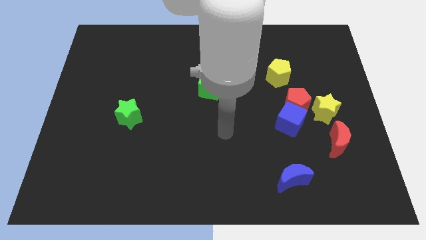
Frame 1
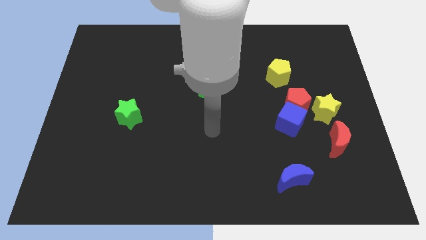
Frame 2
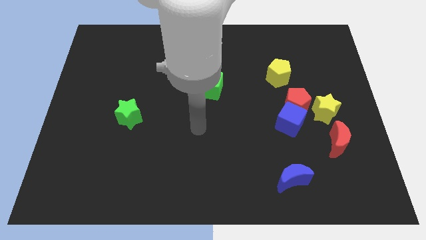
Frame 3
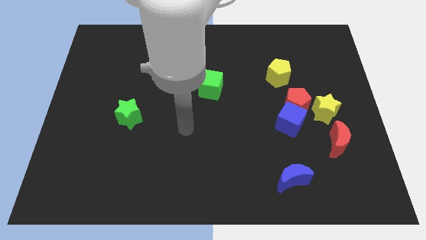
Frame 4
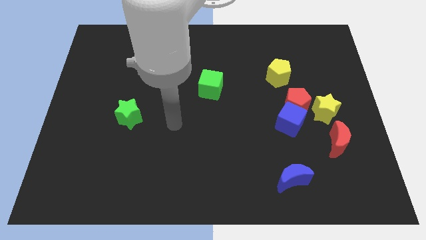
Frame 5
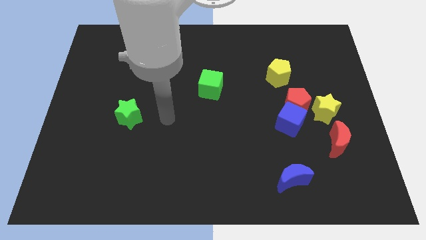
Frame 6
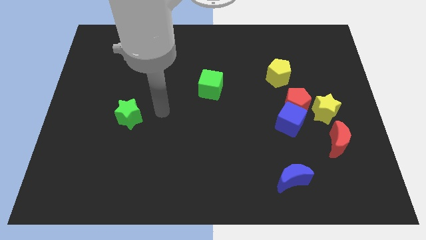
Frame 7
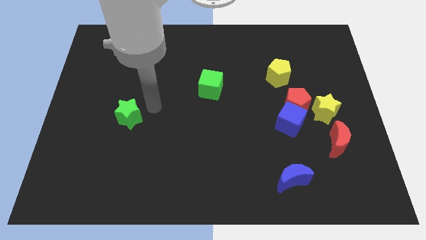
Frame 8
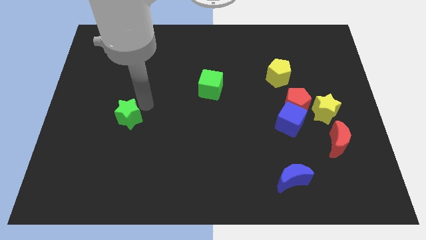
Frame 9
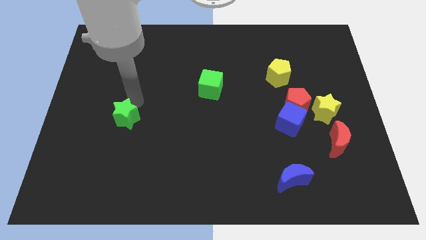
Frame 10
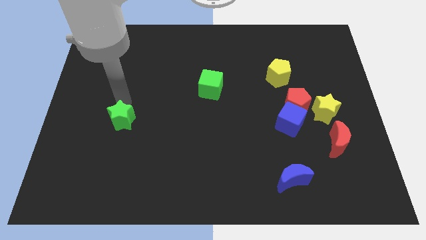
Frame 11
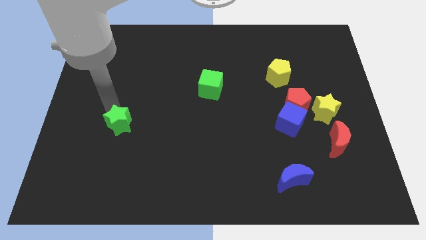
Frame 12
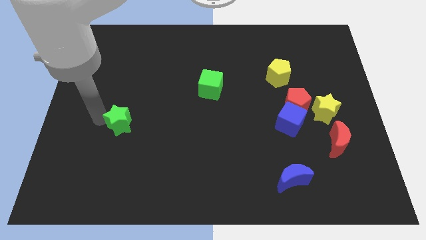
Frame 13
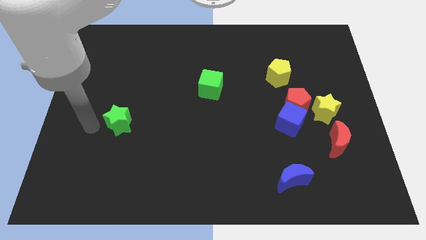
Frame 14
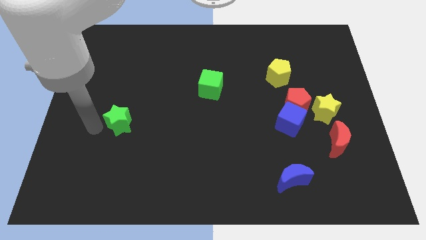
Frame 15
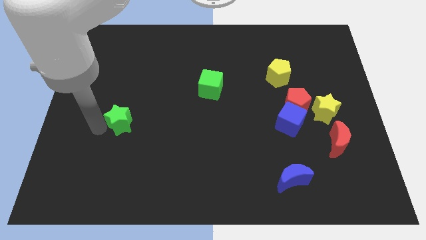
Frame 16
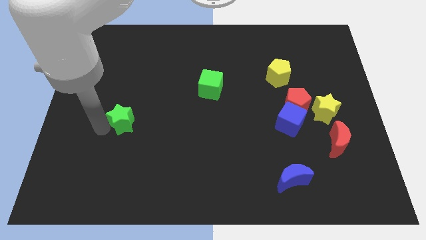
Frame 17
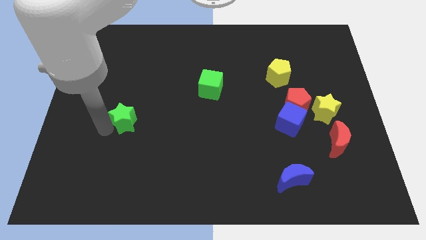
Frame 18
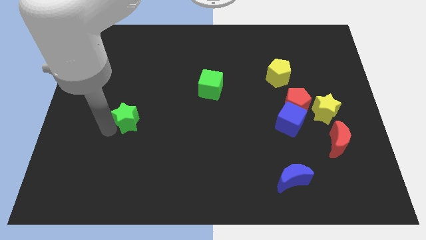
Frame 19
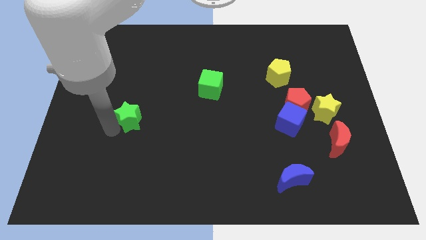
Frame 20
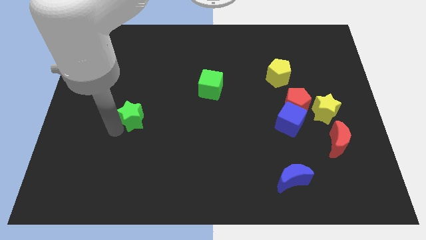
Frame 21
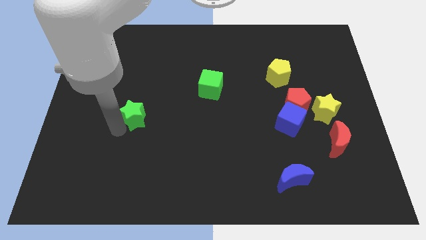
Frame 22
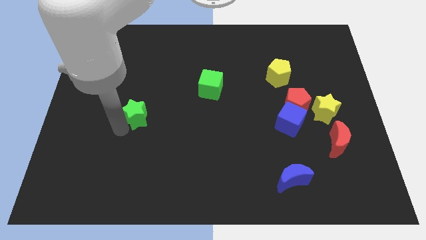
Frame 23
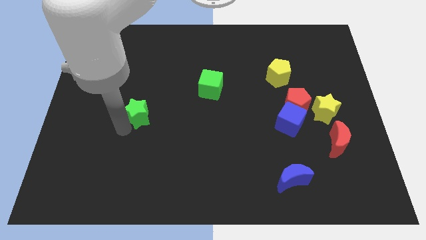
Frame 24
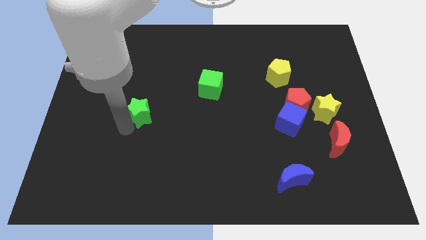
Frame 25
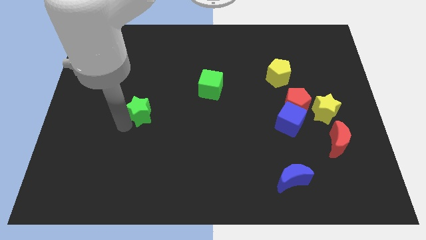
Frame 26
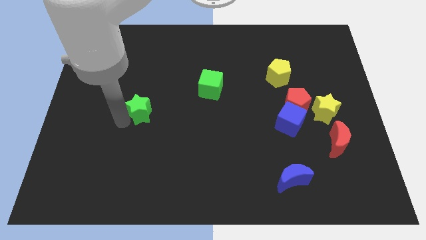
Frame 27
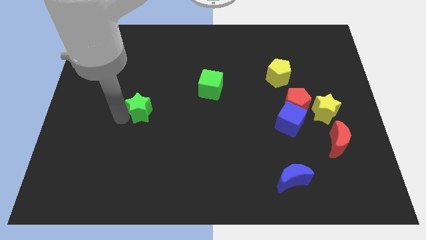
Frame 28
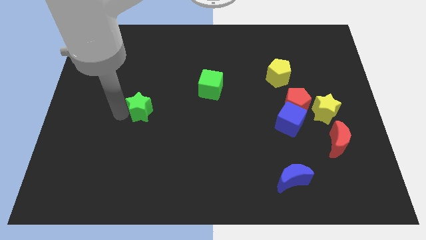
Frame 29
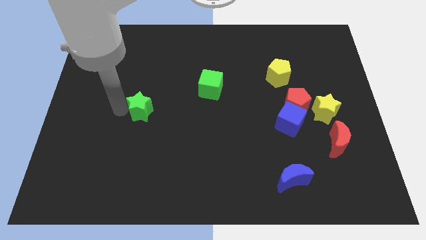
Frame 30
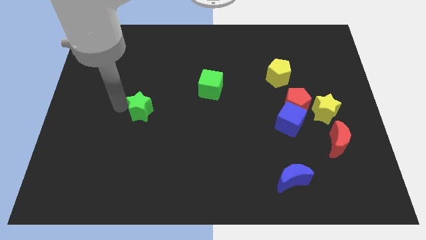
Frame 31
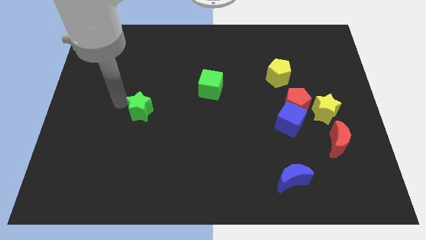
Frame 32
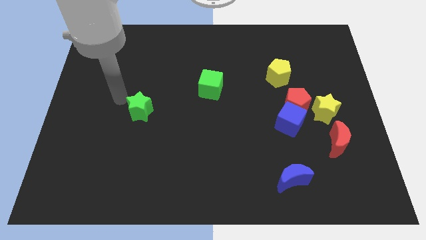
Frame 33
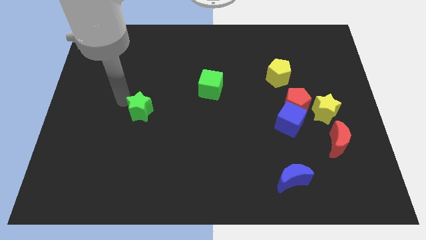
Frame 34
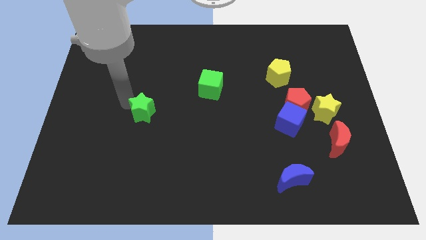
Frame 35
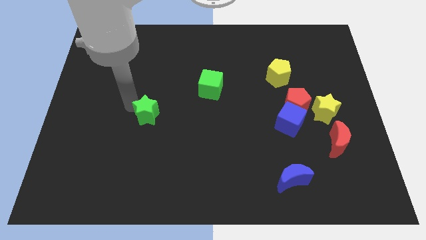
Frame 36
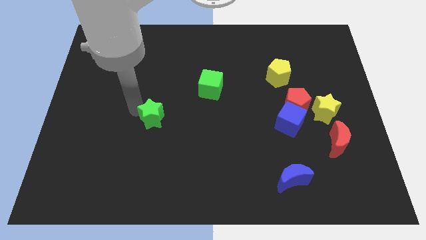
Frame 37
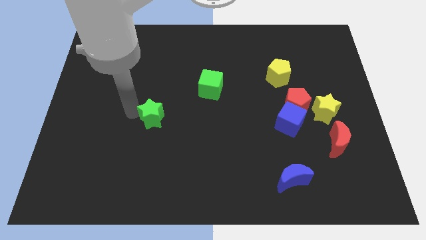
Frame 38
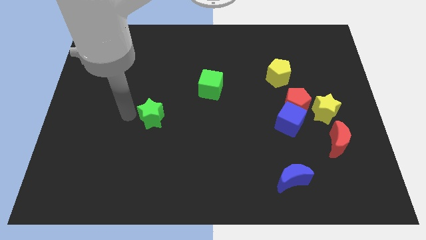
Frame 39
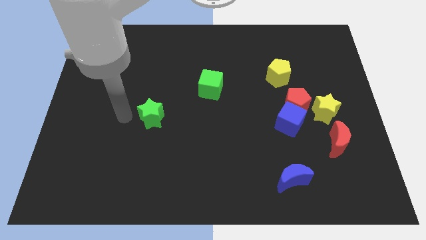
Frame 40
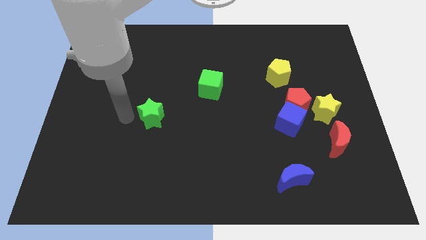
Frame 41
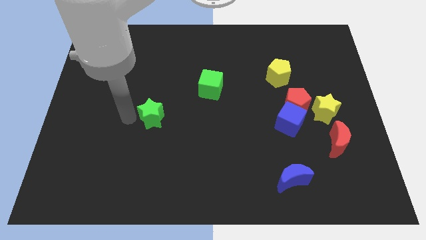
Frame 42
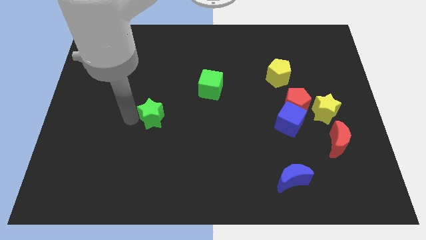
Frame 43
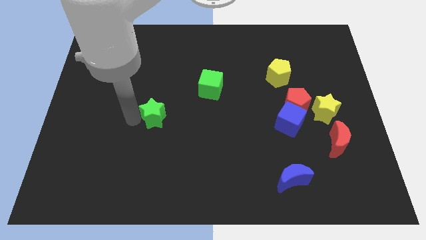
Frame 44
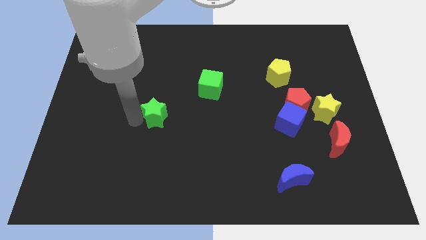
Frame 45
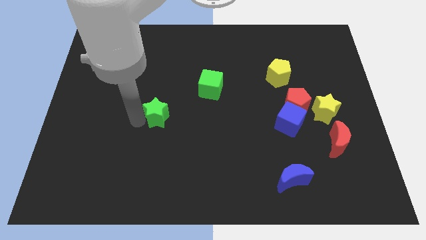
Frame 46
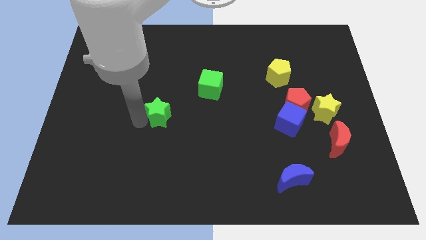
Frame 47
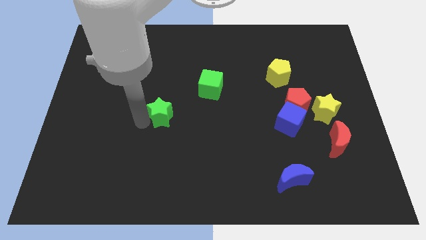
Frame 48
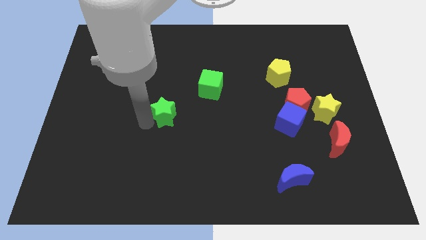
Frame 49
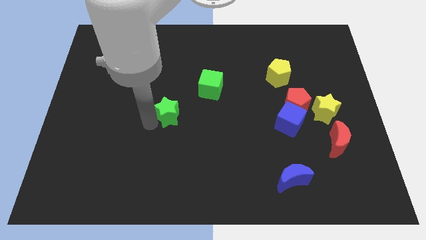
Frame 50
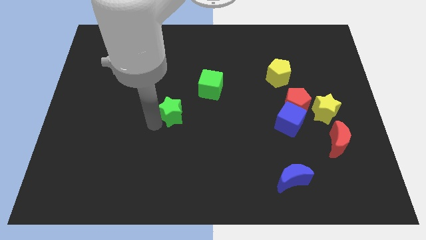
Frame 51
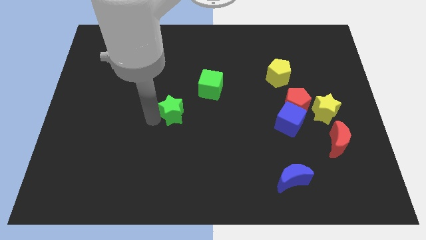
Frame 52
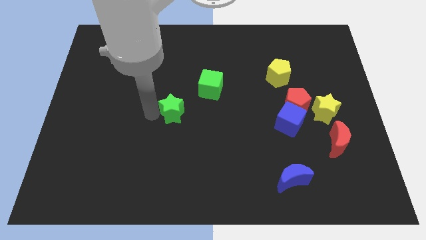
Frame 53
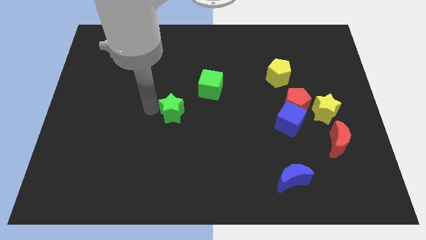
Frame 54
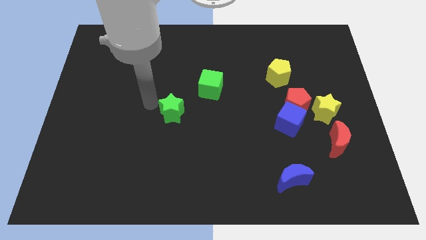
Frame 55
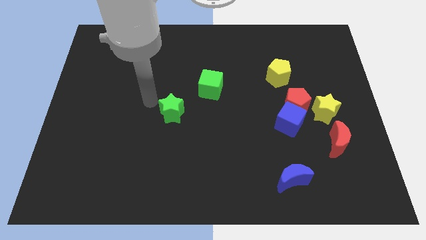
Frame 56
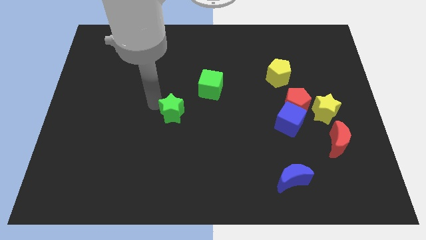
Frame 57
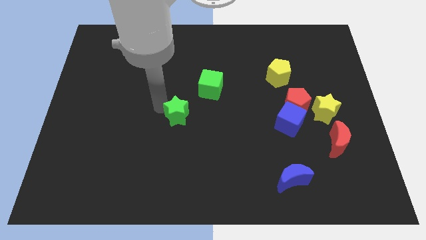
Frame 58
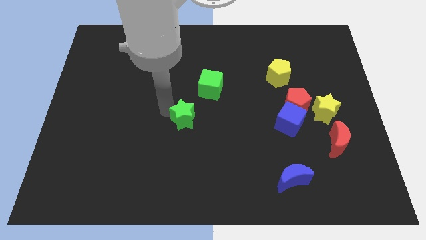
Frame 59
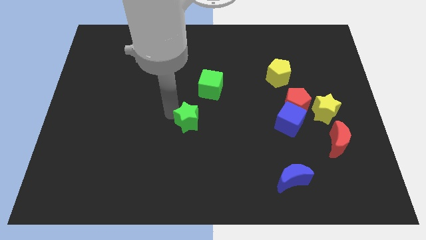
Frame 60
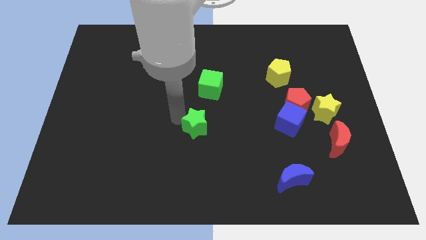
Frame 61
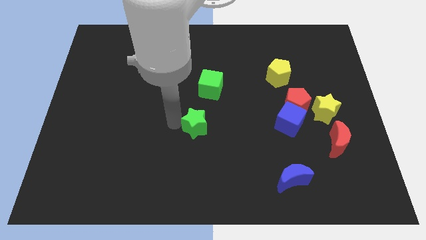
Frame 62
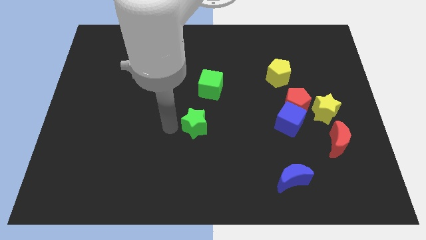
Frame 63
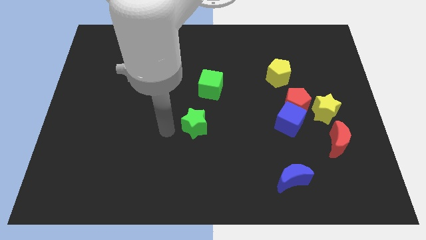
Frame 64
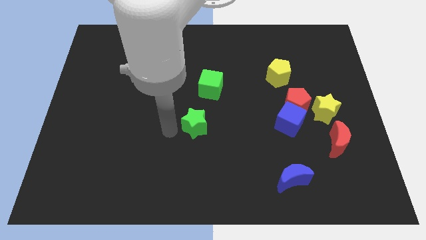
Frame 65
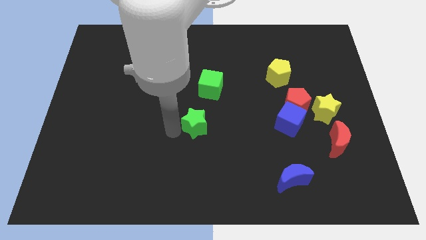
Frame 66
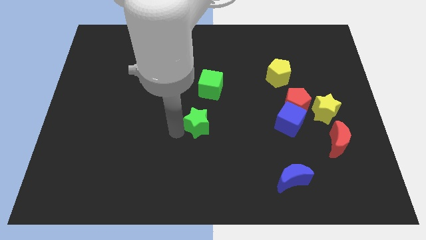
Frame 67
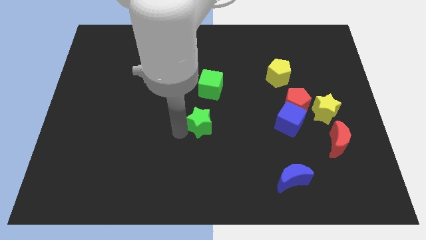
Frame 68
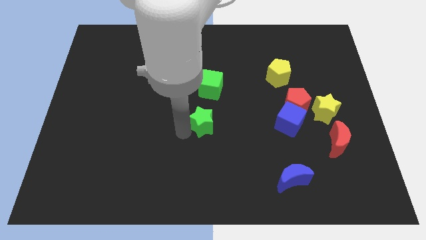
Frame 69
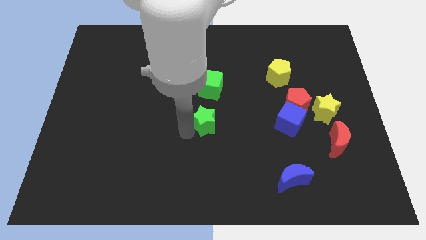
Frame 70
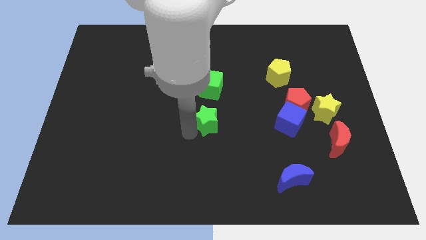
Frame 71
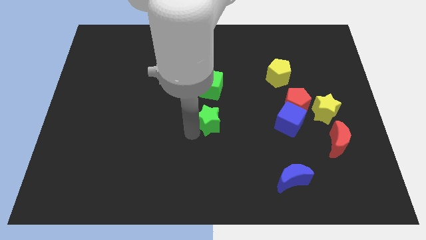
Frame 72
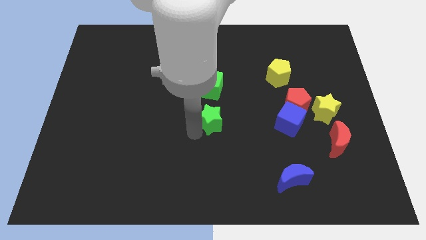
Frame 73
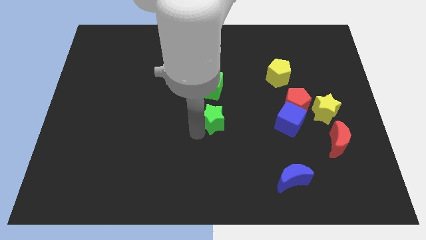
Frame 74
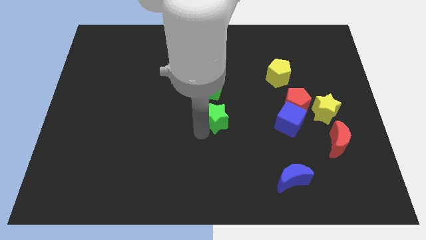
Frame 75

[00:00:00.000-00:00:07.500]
move the green star right

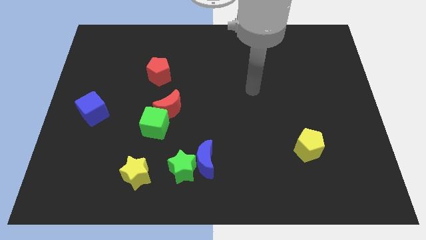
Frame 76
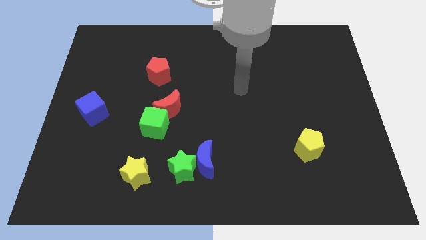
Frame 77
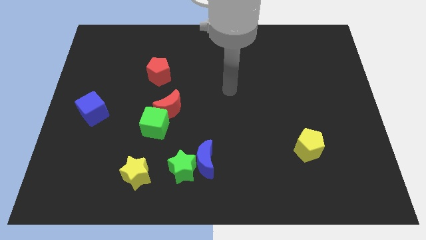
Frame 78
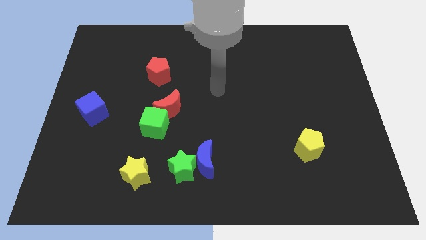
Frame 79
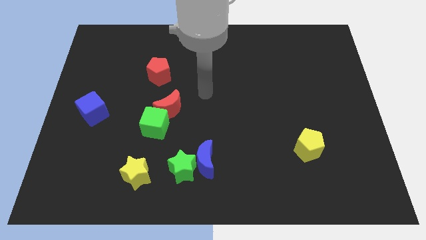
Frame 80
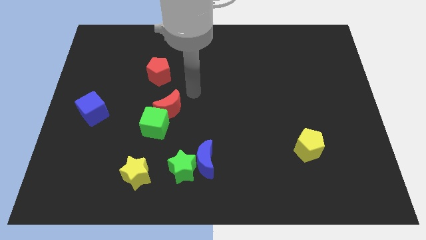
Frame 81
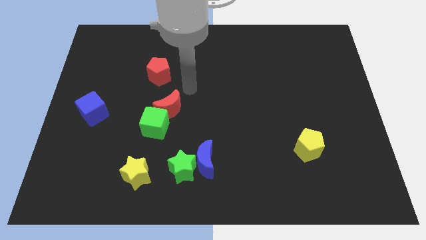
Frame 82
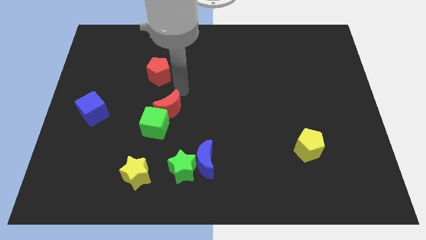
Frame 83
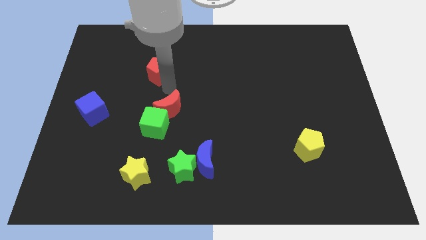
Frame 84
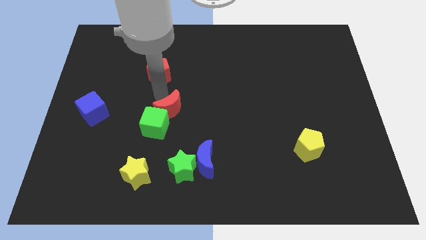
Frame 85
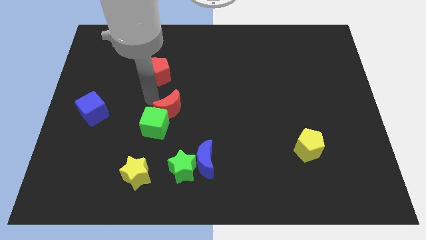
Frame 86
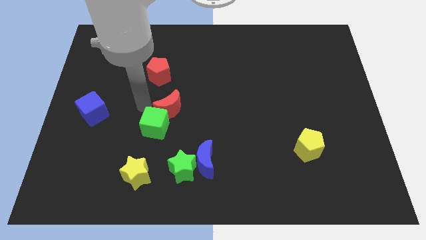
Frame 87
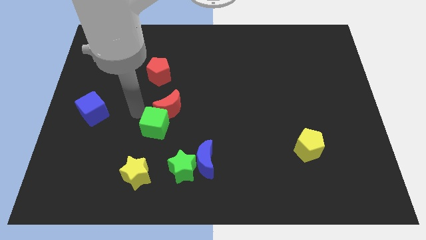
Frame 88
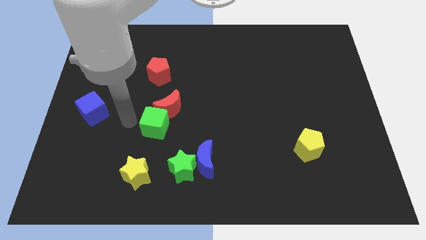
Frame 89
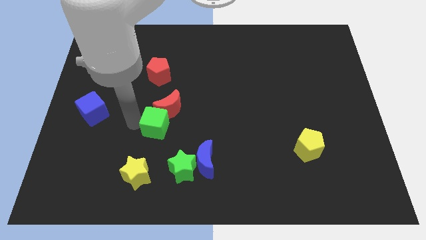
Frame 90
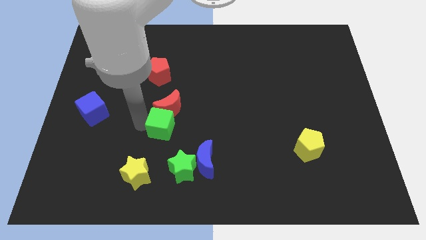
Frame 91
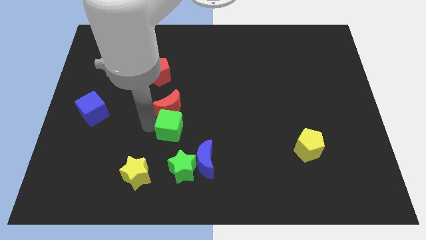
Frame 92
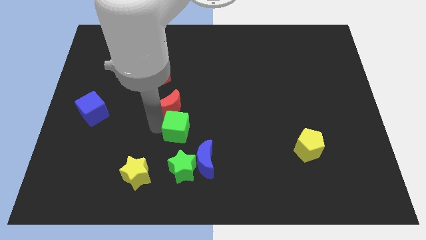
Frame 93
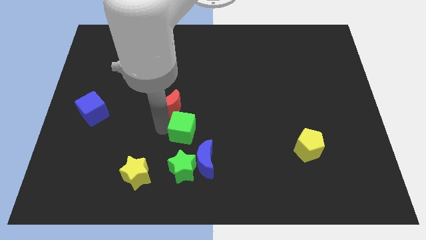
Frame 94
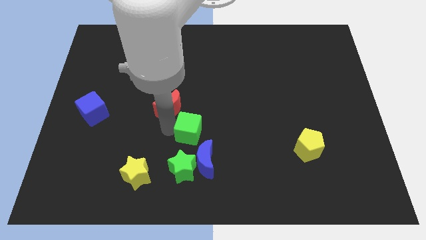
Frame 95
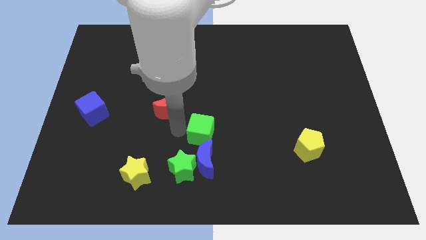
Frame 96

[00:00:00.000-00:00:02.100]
move the green cube downwards and then right a little bit
